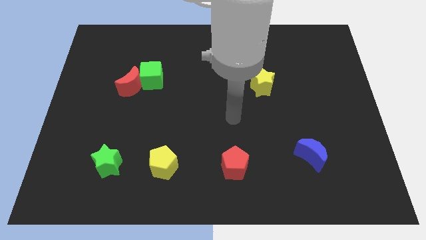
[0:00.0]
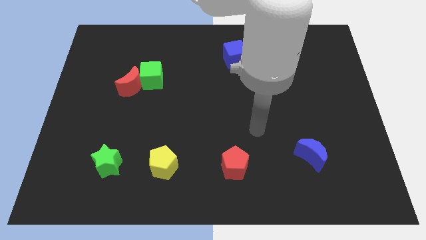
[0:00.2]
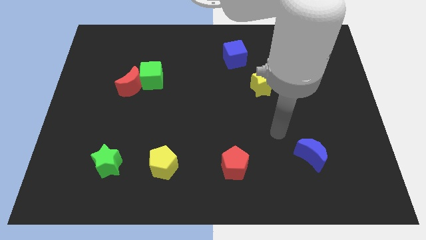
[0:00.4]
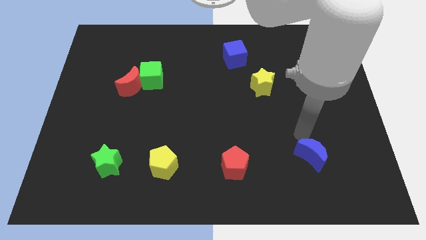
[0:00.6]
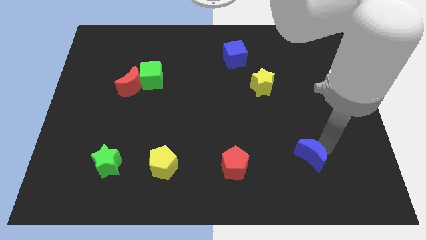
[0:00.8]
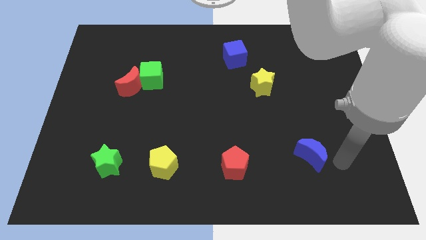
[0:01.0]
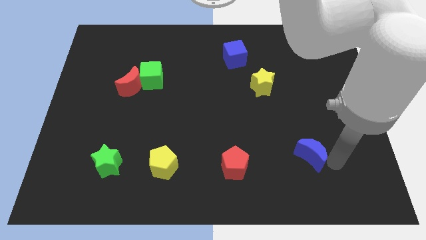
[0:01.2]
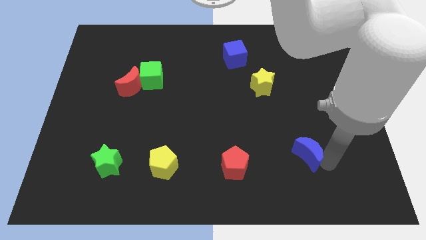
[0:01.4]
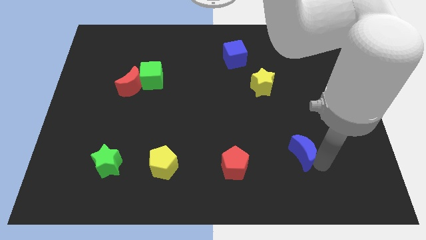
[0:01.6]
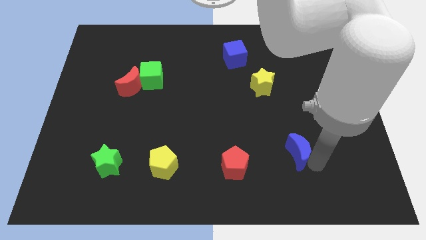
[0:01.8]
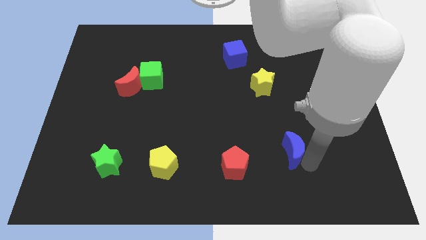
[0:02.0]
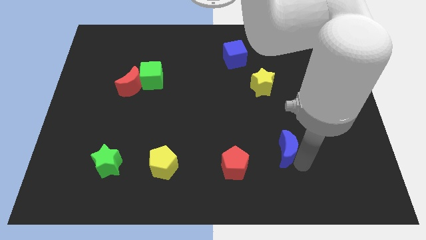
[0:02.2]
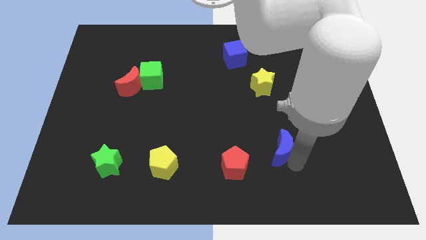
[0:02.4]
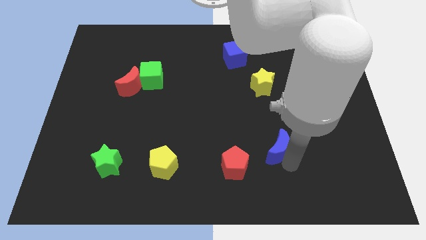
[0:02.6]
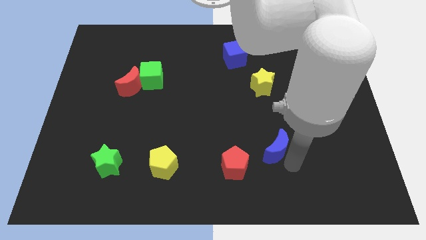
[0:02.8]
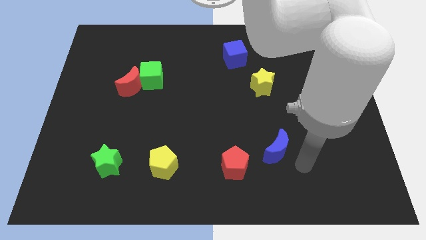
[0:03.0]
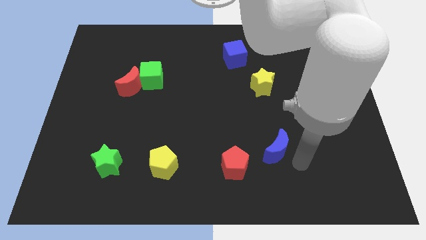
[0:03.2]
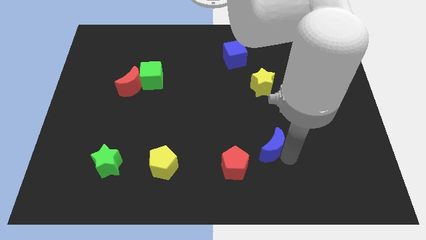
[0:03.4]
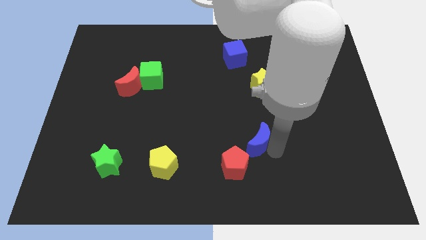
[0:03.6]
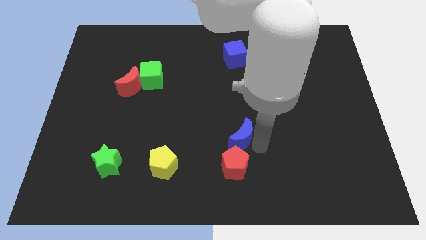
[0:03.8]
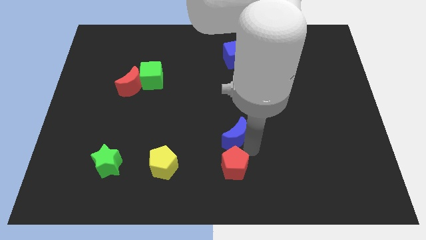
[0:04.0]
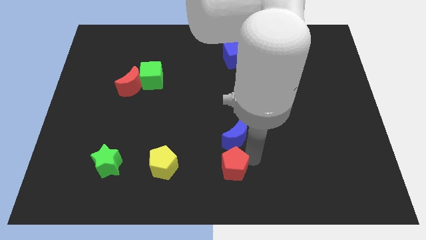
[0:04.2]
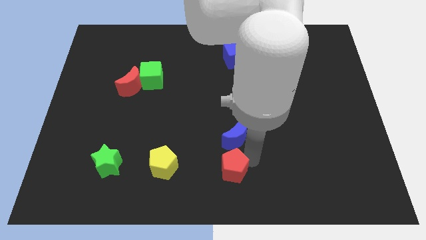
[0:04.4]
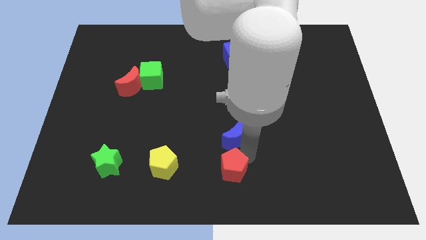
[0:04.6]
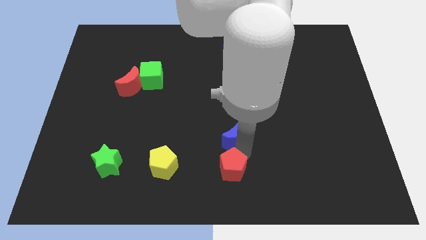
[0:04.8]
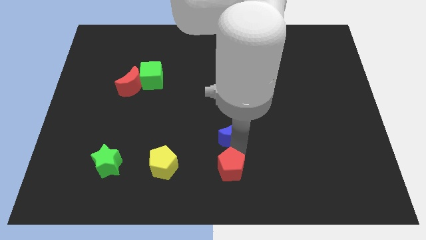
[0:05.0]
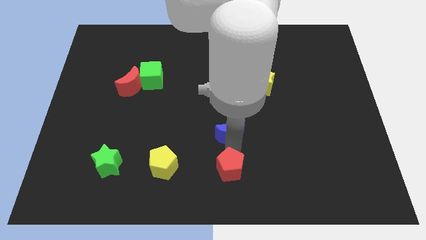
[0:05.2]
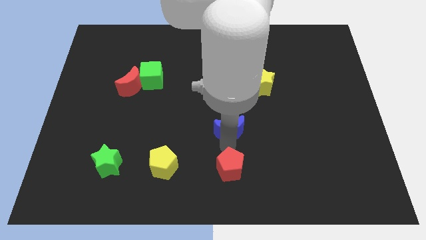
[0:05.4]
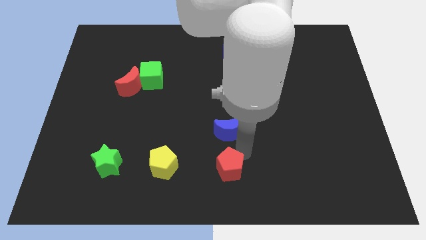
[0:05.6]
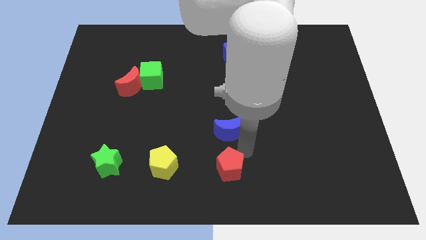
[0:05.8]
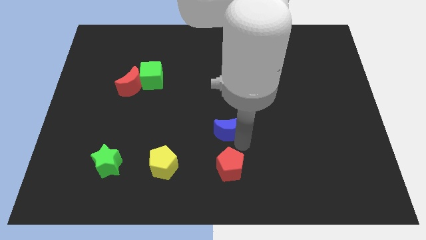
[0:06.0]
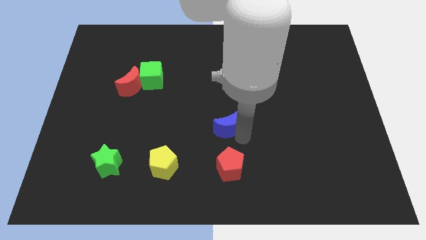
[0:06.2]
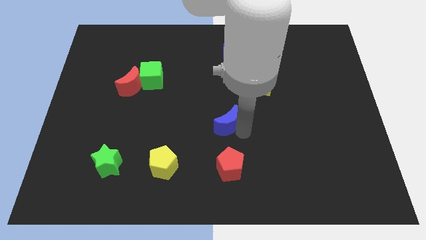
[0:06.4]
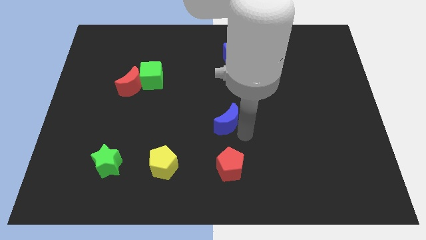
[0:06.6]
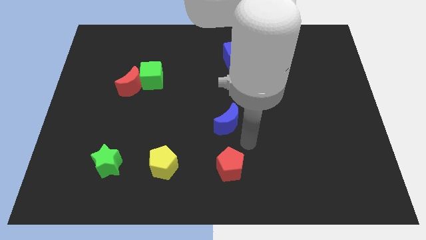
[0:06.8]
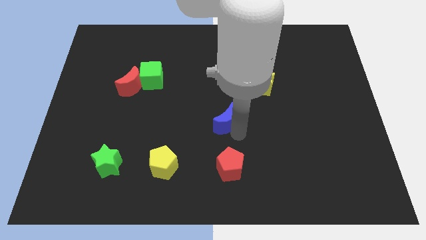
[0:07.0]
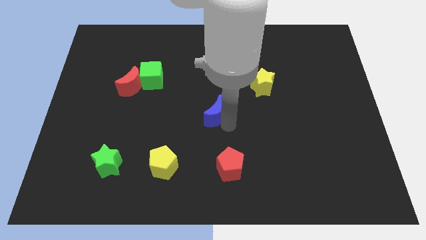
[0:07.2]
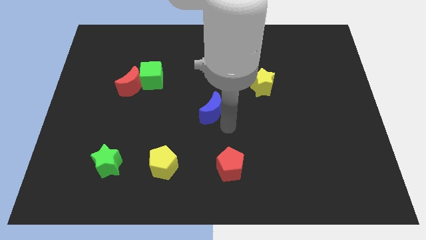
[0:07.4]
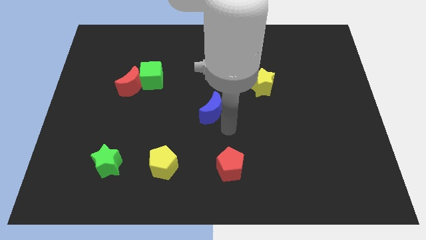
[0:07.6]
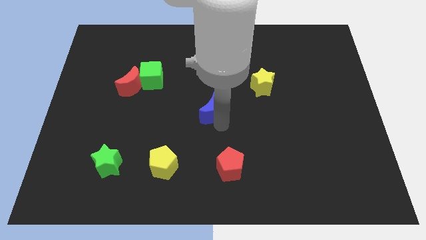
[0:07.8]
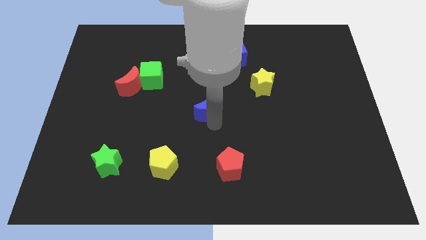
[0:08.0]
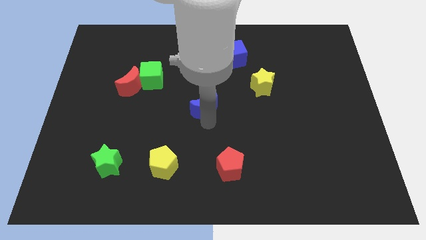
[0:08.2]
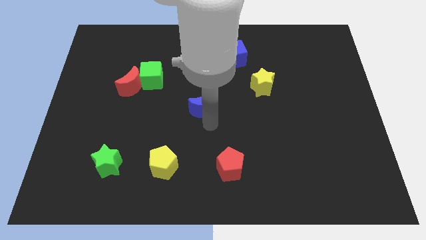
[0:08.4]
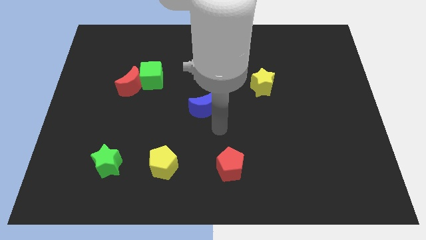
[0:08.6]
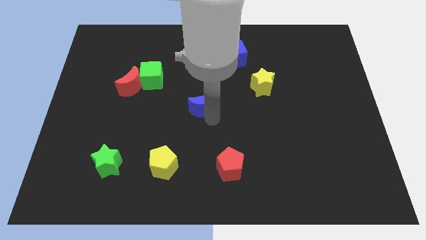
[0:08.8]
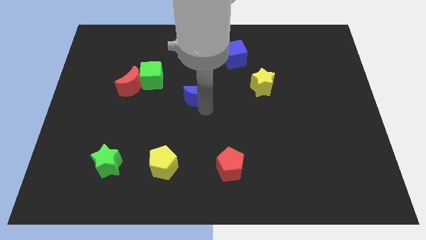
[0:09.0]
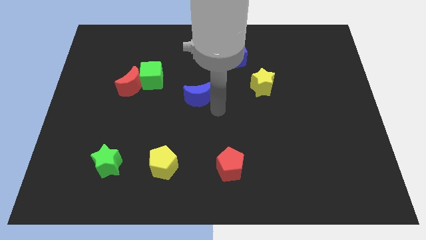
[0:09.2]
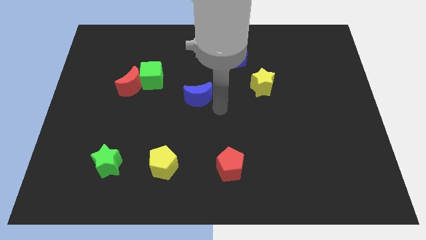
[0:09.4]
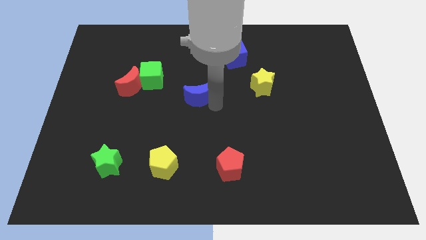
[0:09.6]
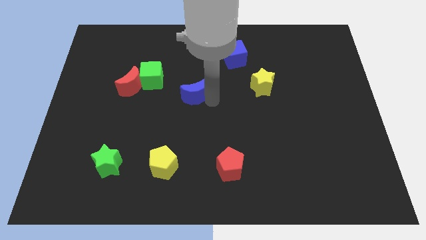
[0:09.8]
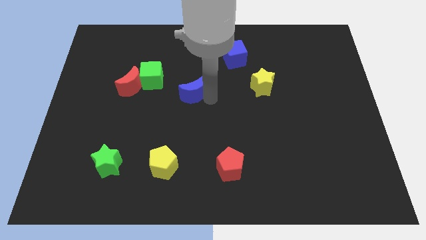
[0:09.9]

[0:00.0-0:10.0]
put the blue moon just right of the red moon

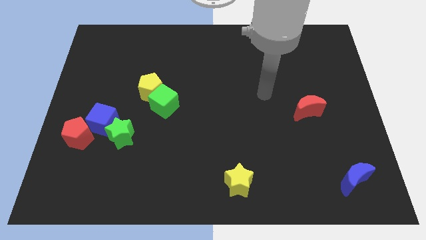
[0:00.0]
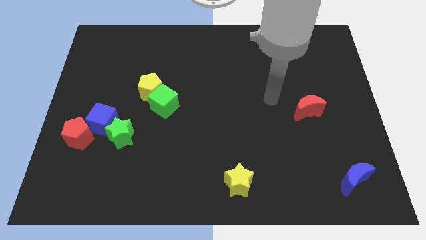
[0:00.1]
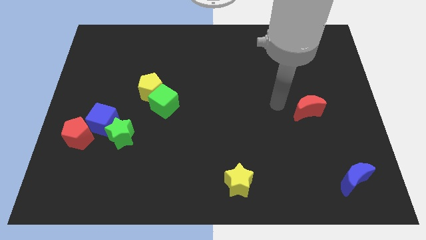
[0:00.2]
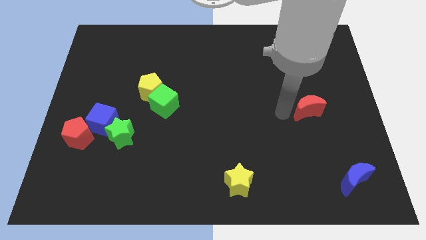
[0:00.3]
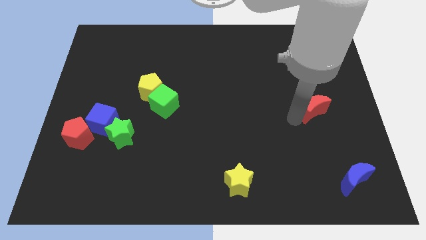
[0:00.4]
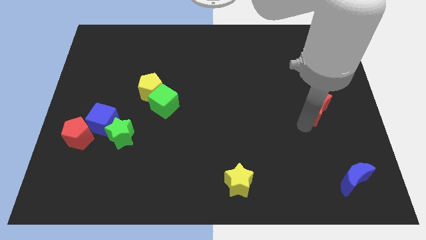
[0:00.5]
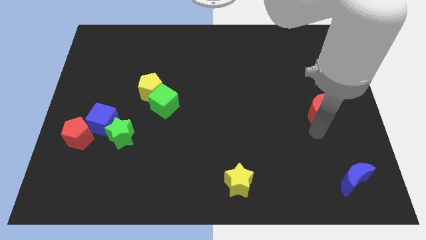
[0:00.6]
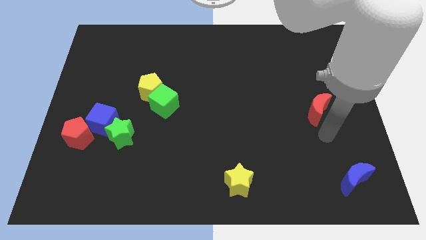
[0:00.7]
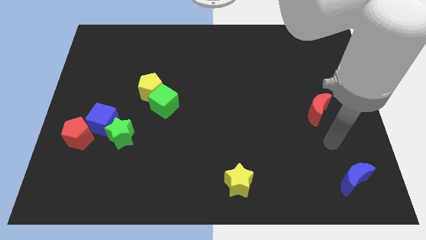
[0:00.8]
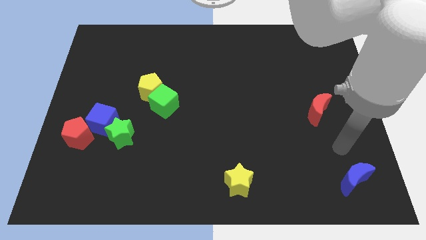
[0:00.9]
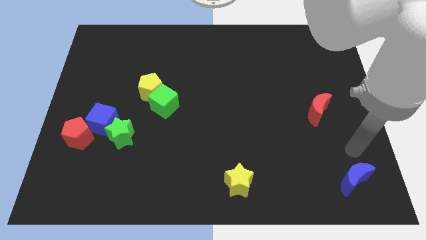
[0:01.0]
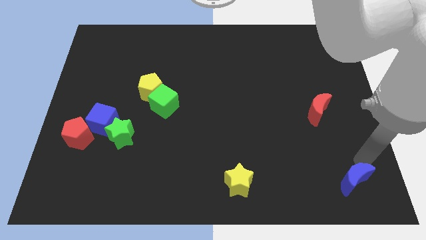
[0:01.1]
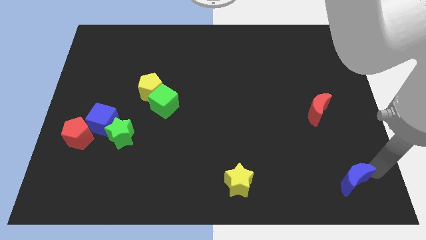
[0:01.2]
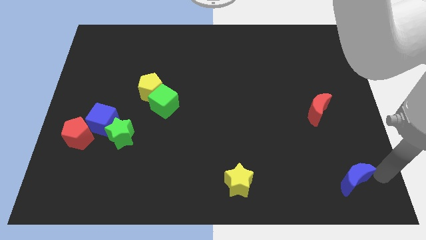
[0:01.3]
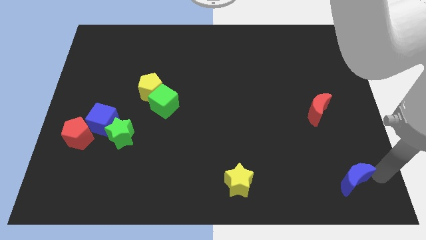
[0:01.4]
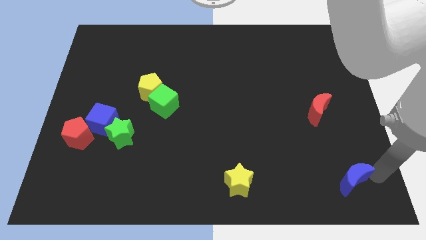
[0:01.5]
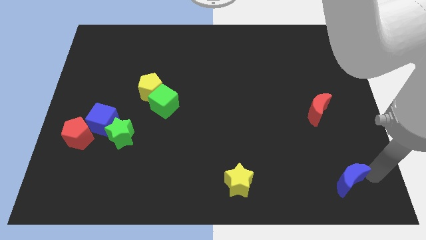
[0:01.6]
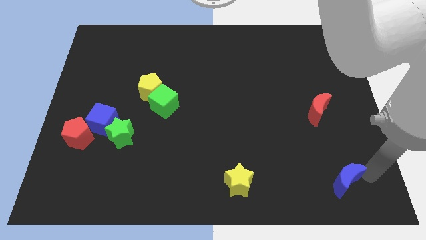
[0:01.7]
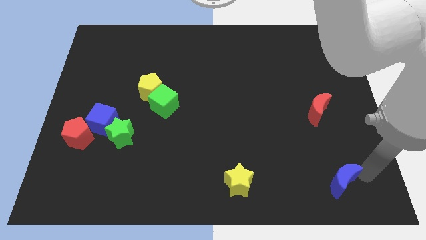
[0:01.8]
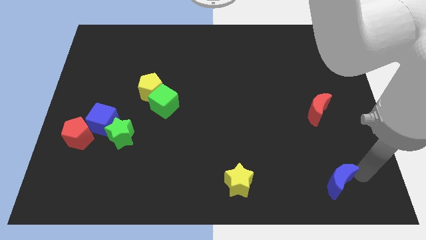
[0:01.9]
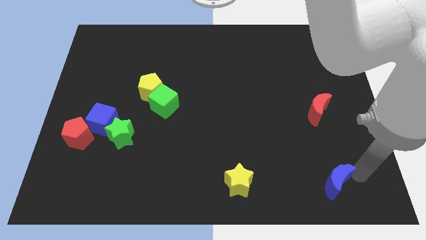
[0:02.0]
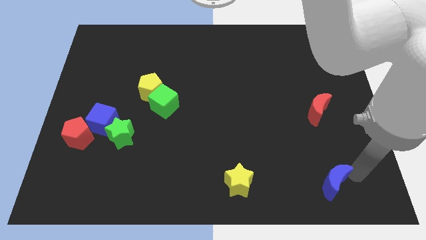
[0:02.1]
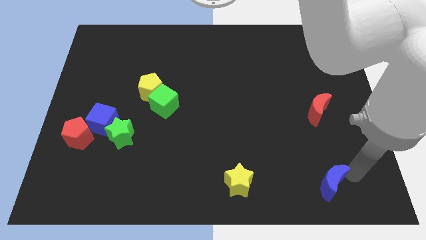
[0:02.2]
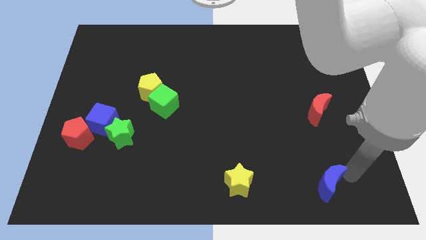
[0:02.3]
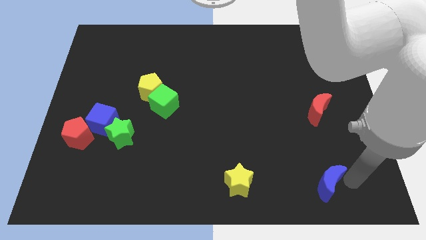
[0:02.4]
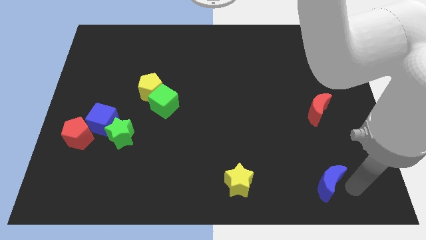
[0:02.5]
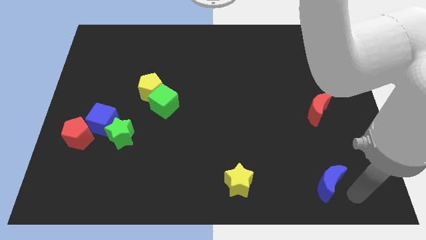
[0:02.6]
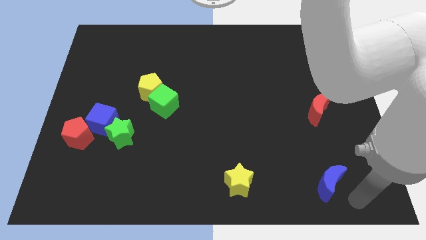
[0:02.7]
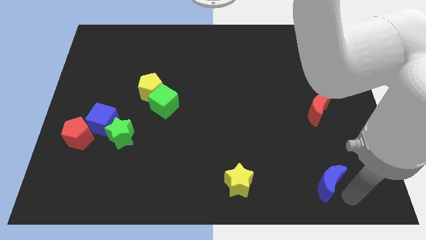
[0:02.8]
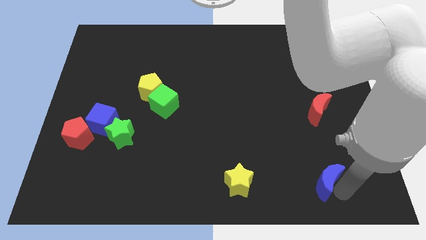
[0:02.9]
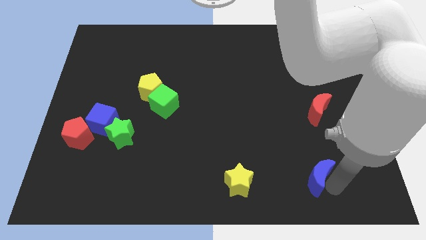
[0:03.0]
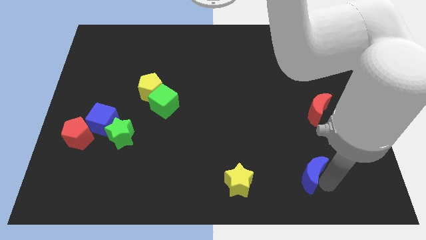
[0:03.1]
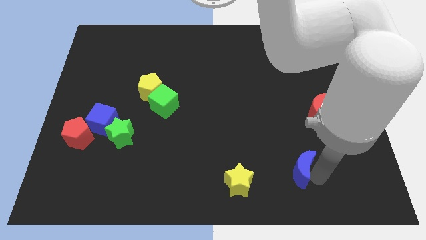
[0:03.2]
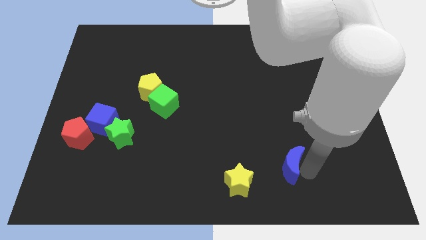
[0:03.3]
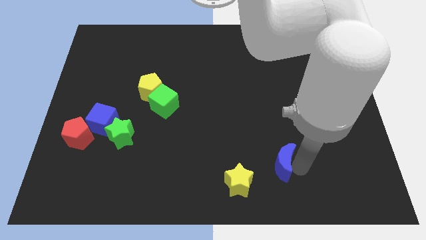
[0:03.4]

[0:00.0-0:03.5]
put the blue moon diagonally up and to the right of the yellow star
